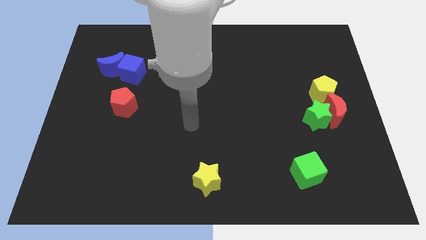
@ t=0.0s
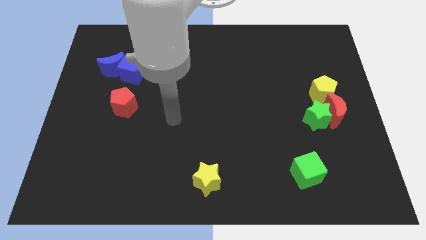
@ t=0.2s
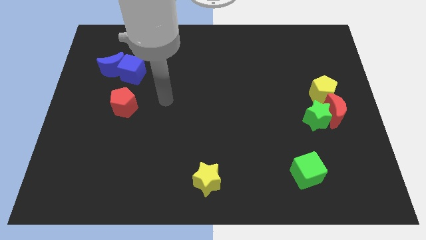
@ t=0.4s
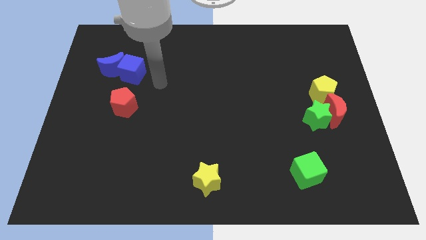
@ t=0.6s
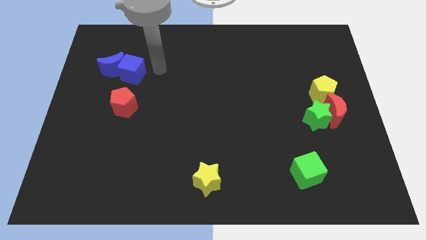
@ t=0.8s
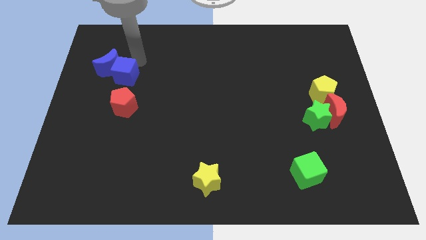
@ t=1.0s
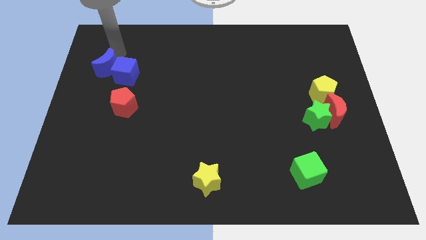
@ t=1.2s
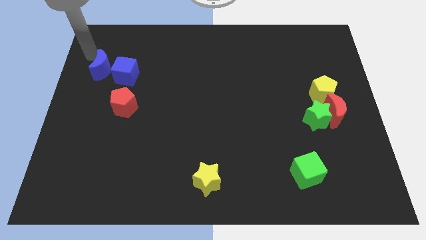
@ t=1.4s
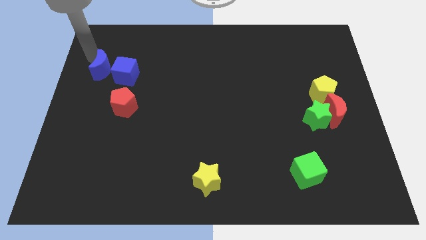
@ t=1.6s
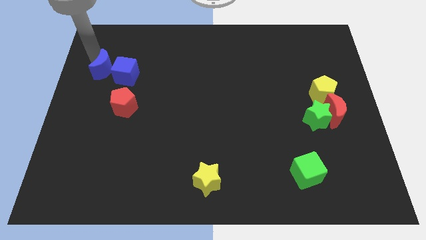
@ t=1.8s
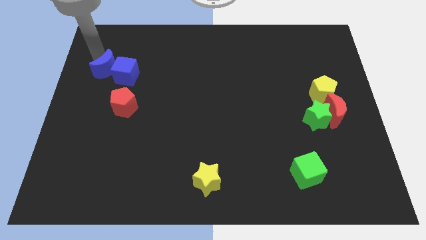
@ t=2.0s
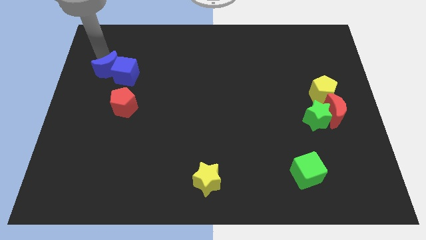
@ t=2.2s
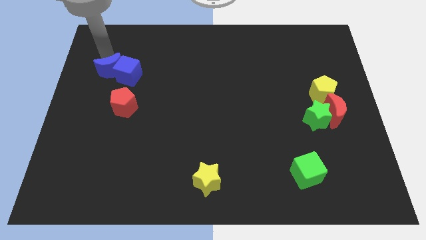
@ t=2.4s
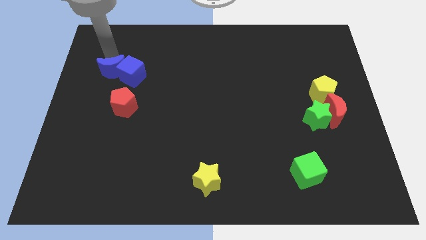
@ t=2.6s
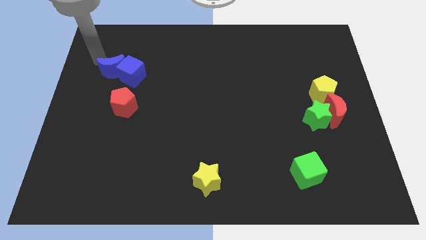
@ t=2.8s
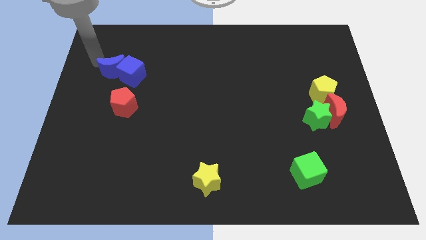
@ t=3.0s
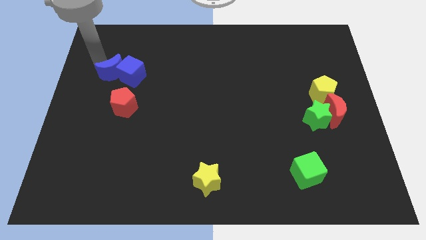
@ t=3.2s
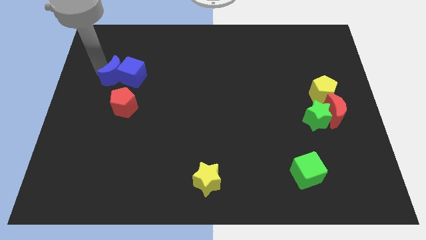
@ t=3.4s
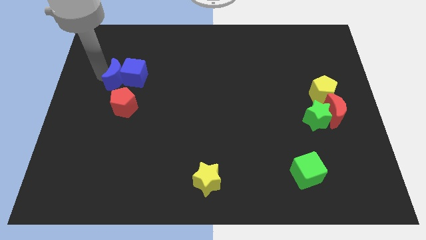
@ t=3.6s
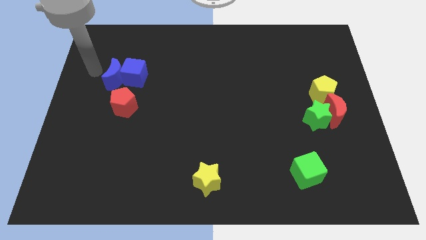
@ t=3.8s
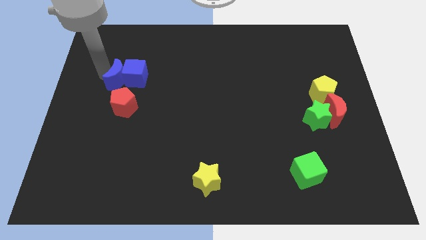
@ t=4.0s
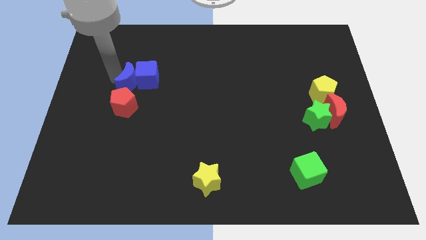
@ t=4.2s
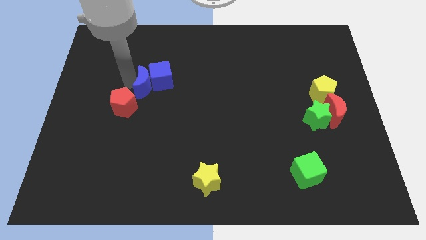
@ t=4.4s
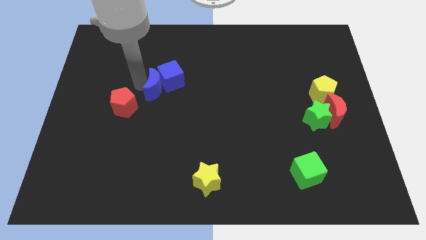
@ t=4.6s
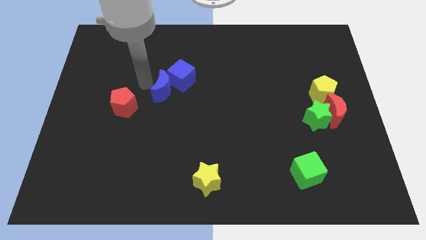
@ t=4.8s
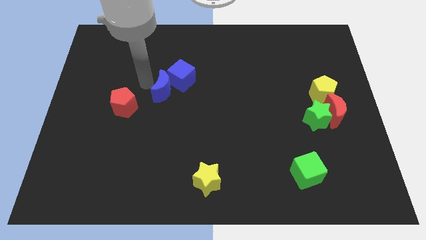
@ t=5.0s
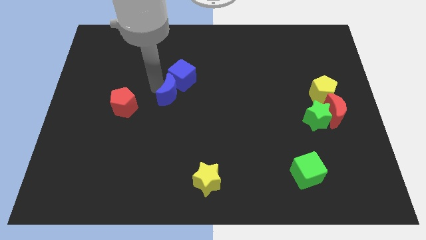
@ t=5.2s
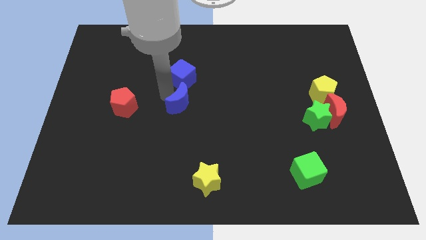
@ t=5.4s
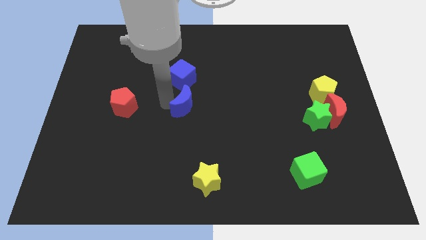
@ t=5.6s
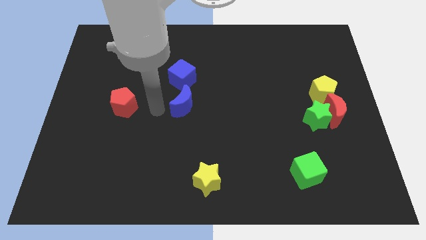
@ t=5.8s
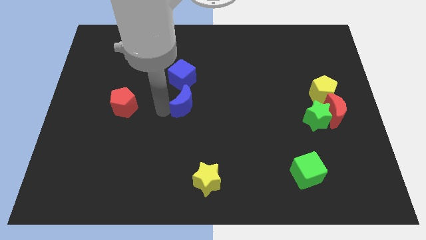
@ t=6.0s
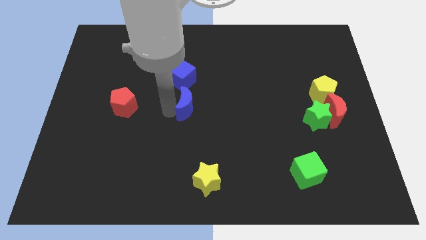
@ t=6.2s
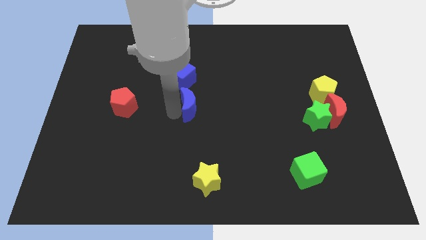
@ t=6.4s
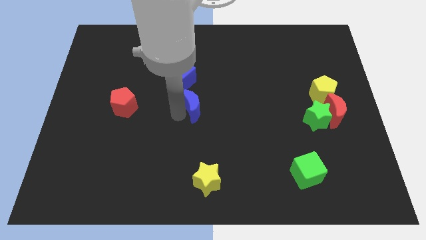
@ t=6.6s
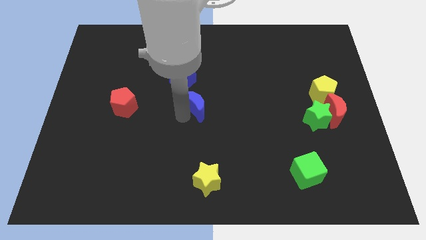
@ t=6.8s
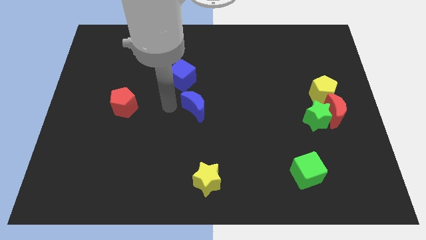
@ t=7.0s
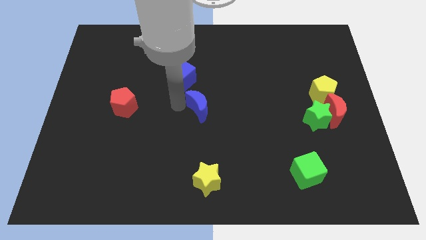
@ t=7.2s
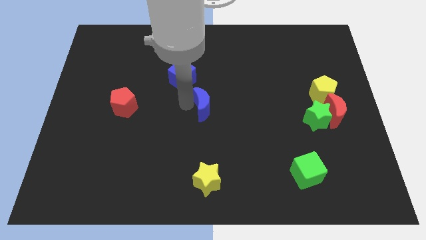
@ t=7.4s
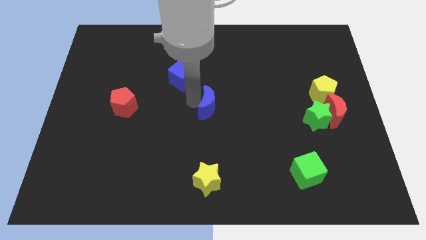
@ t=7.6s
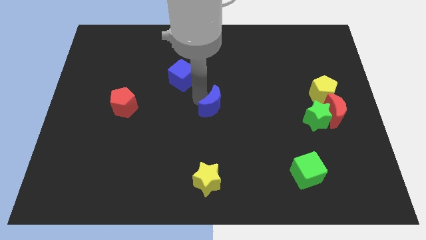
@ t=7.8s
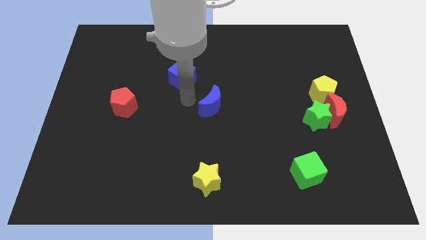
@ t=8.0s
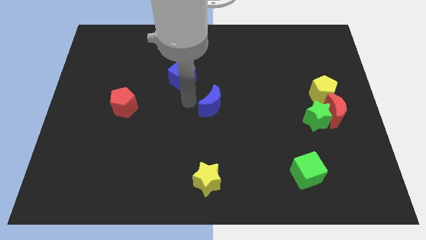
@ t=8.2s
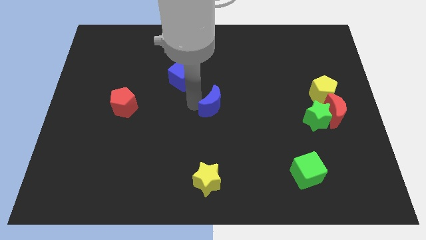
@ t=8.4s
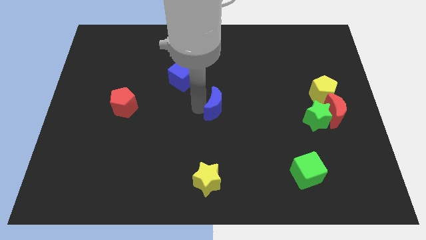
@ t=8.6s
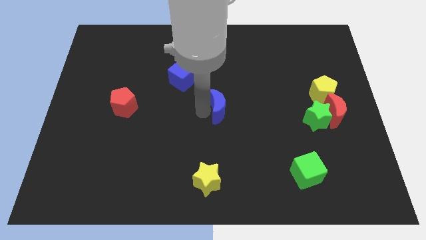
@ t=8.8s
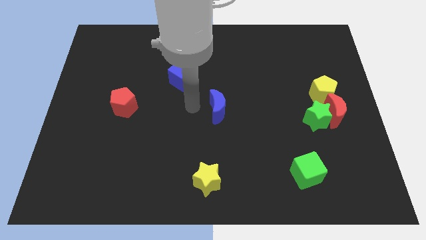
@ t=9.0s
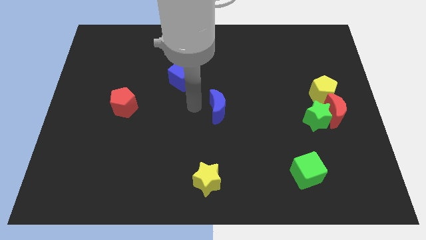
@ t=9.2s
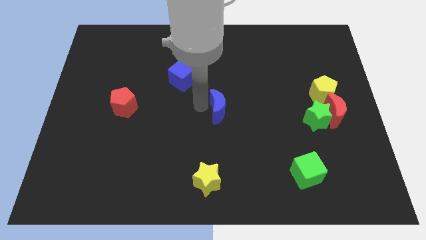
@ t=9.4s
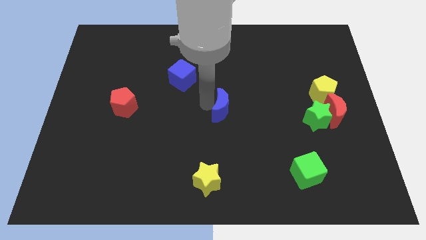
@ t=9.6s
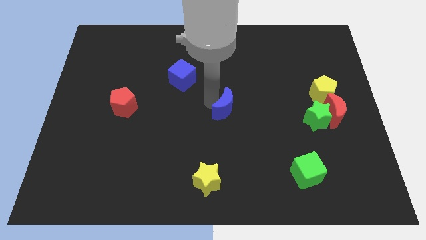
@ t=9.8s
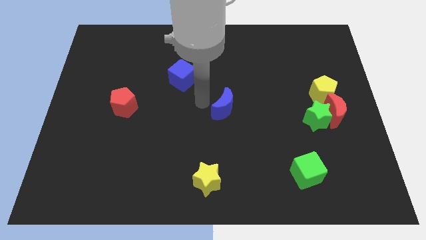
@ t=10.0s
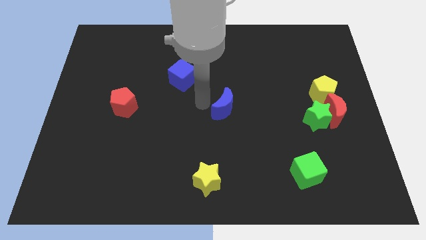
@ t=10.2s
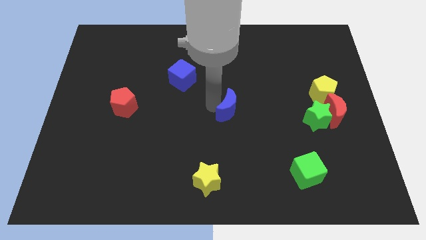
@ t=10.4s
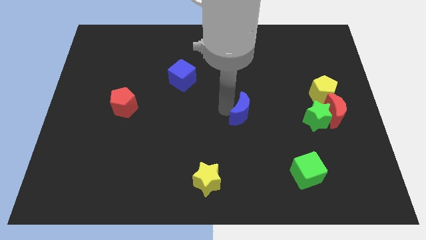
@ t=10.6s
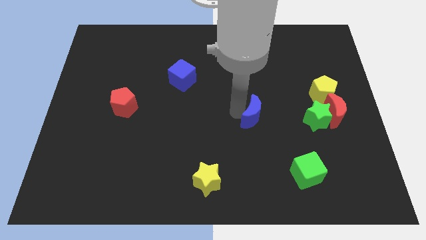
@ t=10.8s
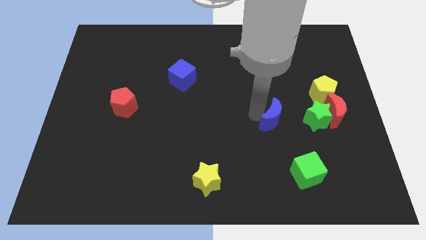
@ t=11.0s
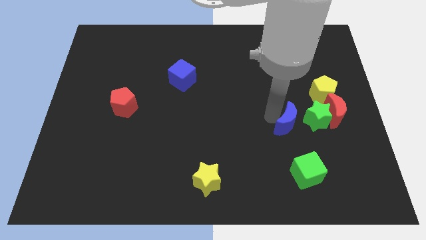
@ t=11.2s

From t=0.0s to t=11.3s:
move the blue moon to the bottom left of the green star
